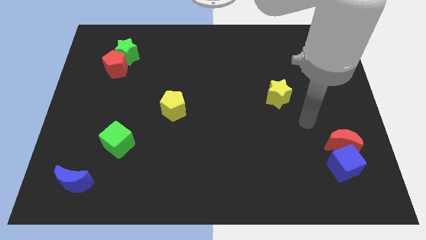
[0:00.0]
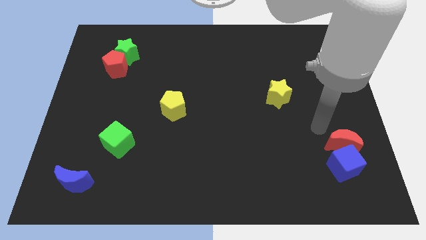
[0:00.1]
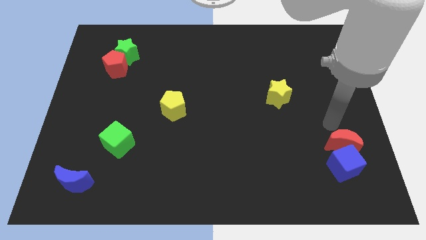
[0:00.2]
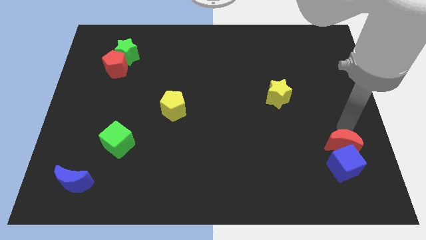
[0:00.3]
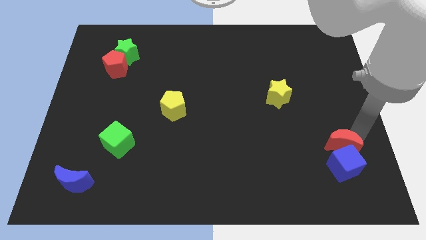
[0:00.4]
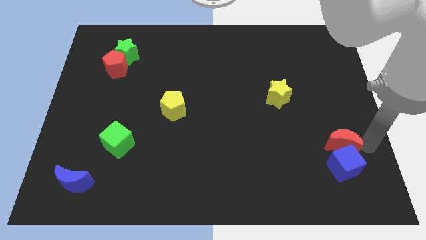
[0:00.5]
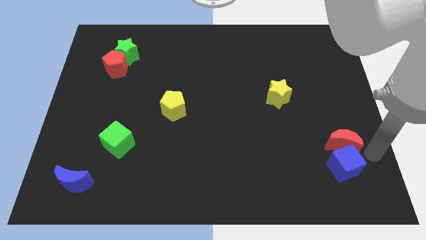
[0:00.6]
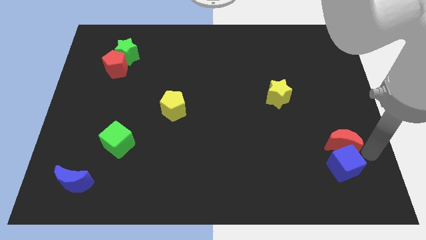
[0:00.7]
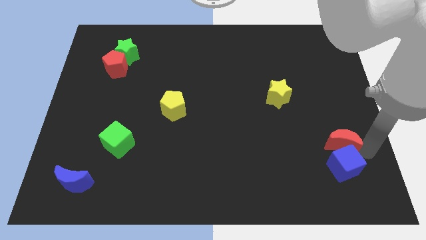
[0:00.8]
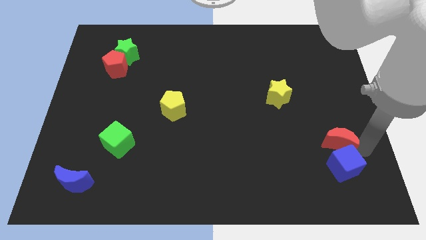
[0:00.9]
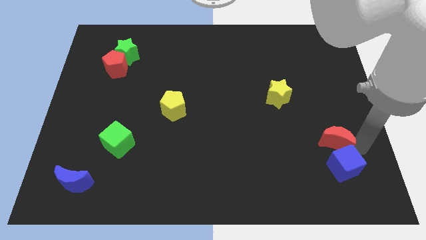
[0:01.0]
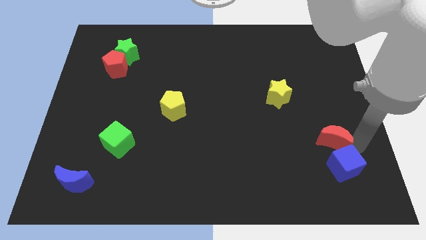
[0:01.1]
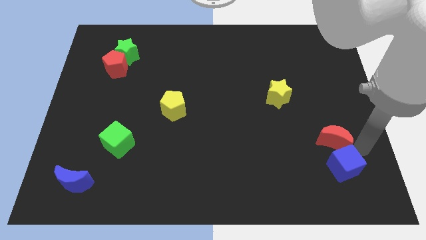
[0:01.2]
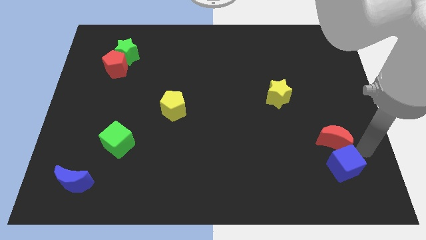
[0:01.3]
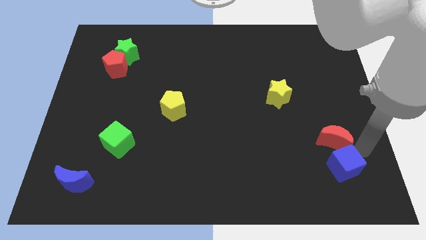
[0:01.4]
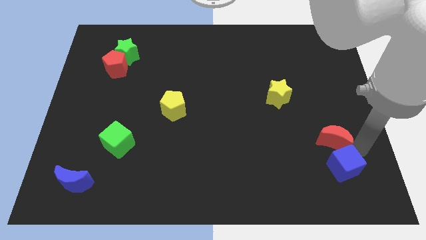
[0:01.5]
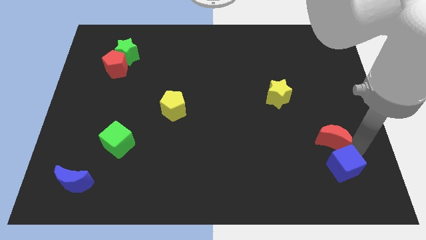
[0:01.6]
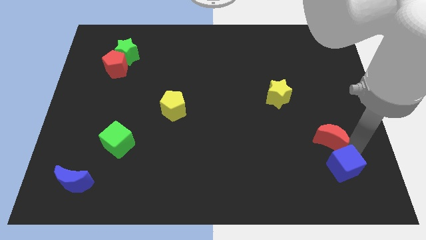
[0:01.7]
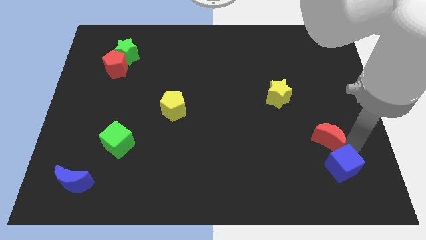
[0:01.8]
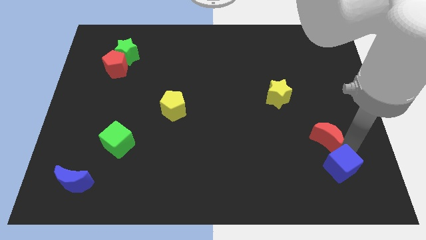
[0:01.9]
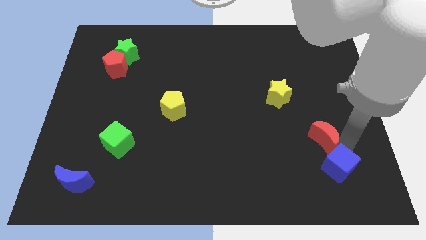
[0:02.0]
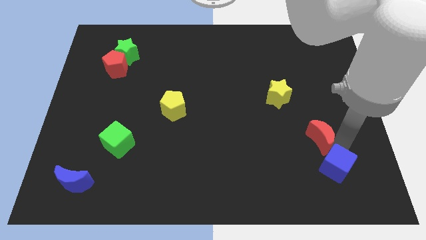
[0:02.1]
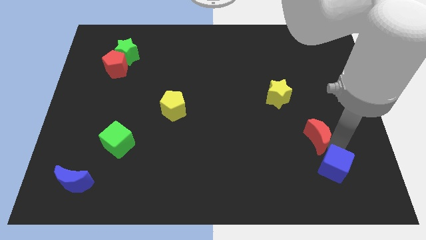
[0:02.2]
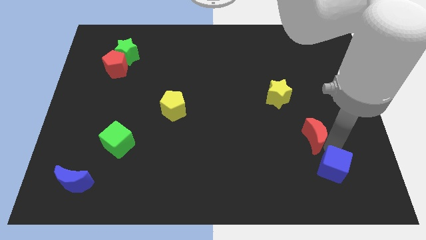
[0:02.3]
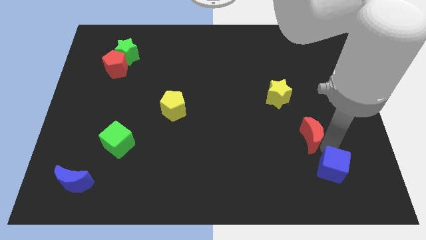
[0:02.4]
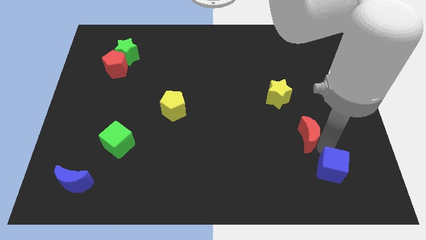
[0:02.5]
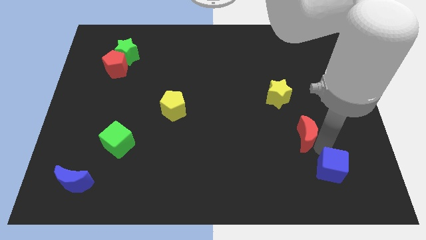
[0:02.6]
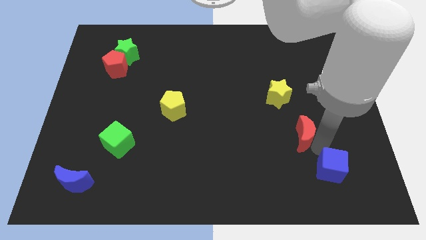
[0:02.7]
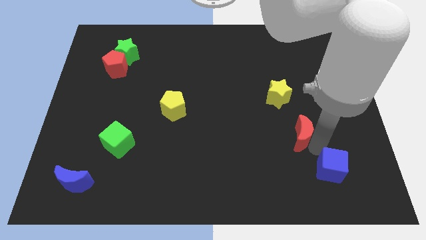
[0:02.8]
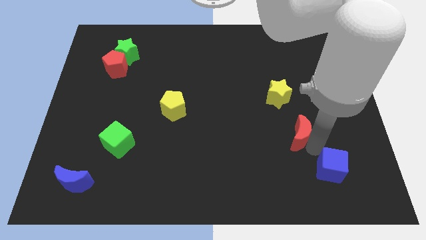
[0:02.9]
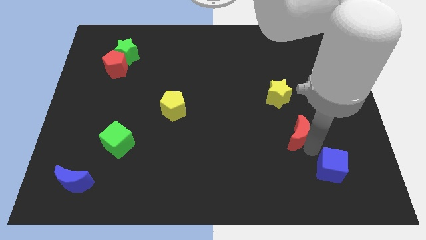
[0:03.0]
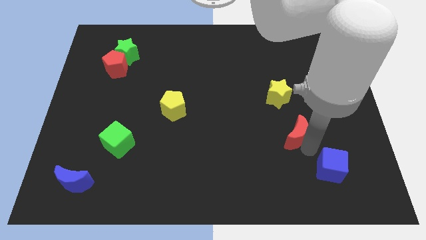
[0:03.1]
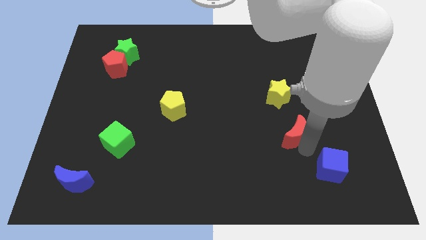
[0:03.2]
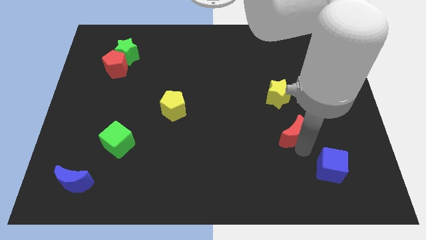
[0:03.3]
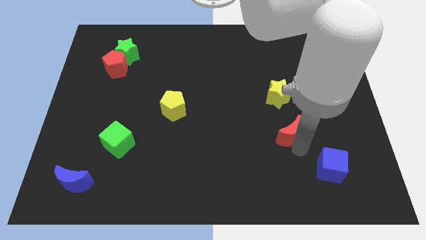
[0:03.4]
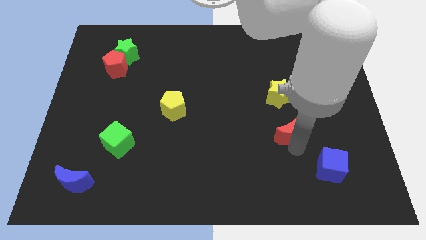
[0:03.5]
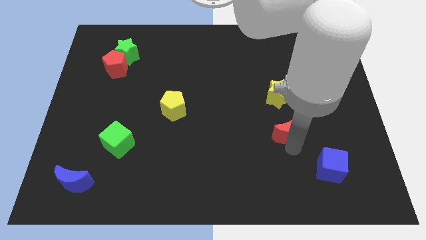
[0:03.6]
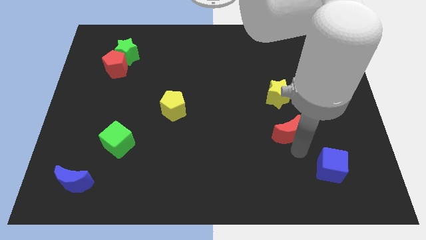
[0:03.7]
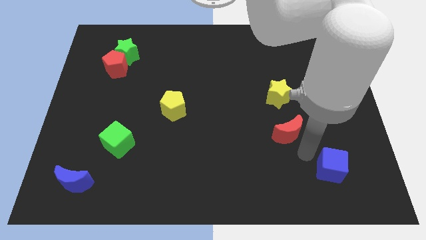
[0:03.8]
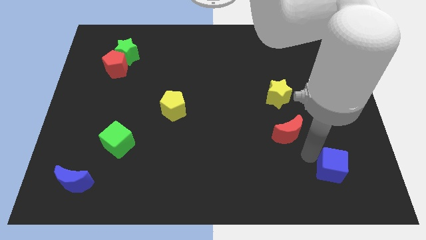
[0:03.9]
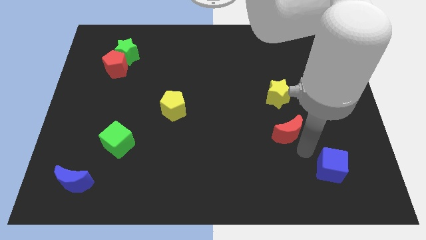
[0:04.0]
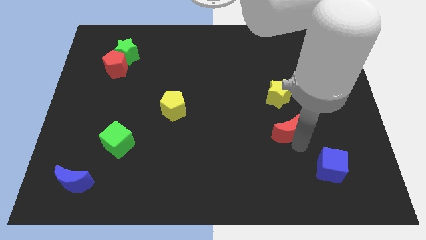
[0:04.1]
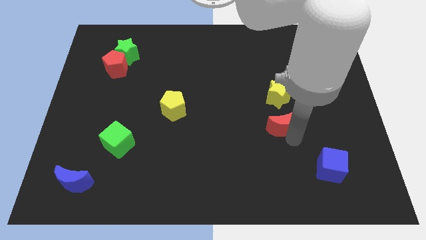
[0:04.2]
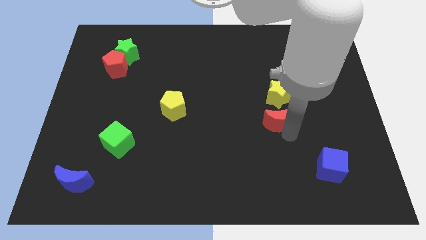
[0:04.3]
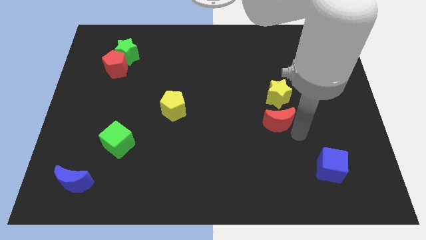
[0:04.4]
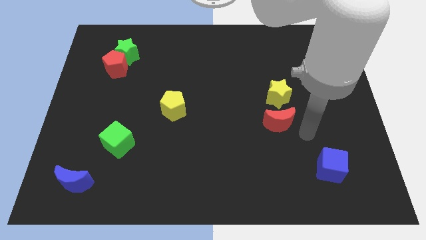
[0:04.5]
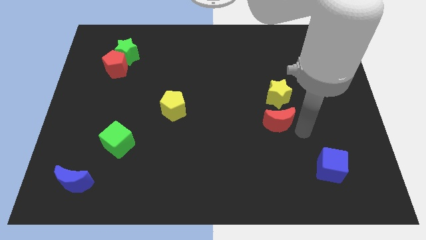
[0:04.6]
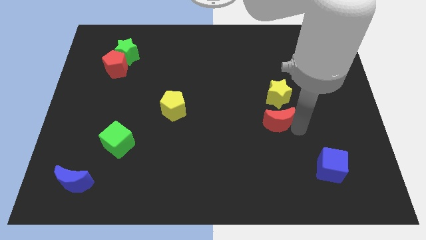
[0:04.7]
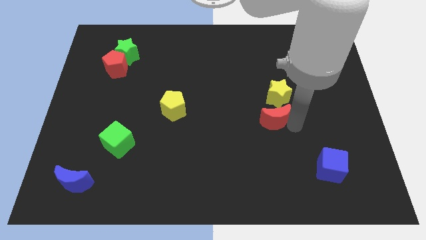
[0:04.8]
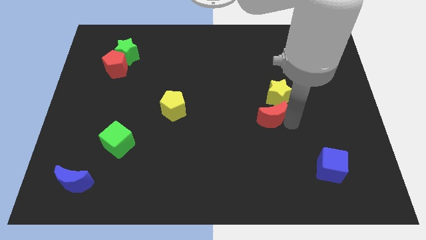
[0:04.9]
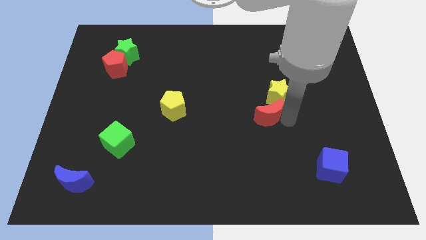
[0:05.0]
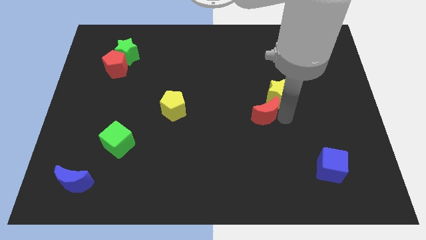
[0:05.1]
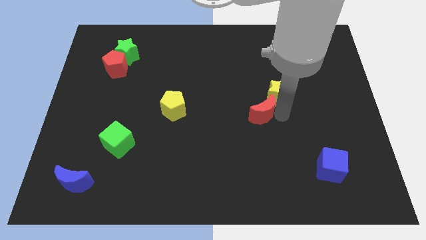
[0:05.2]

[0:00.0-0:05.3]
move the red moon to the center of the board
